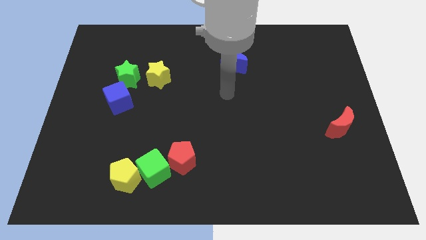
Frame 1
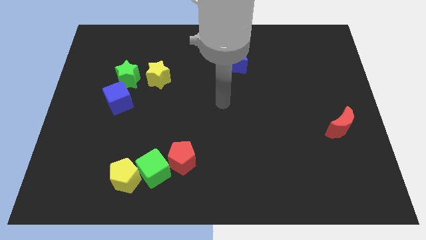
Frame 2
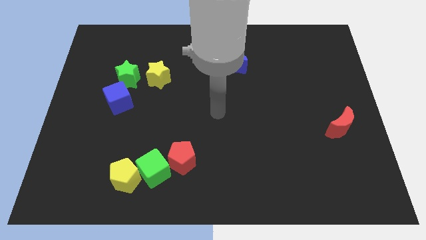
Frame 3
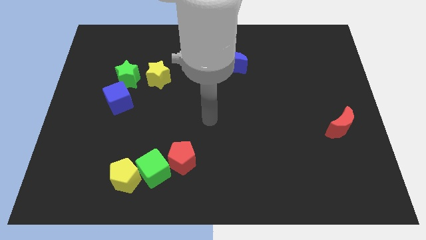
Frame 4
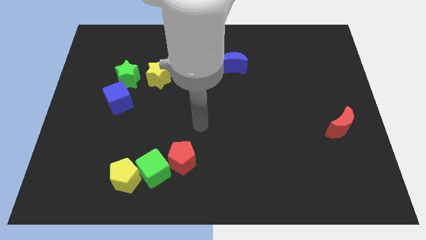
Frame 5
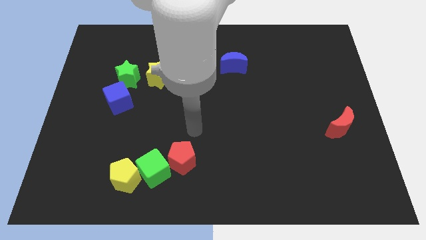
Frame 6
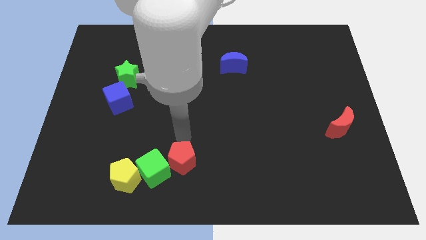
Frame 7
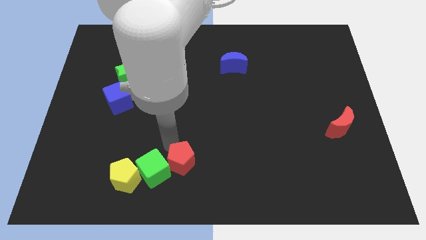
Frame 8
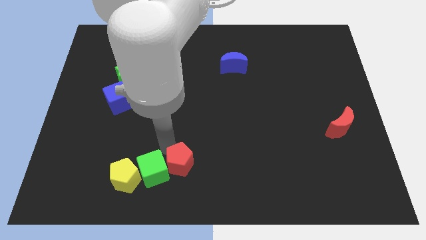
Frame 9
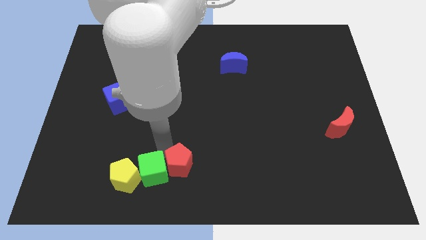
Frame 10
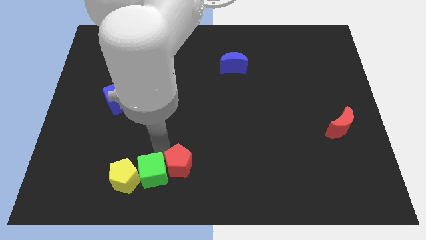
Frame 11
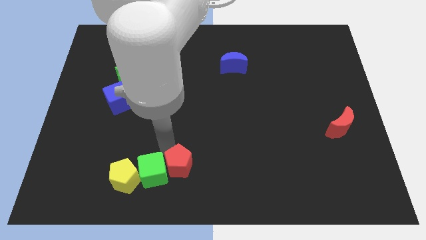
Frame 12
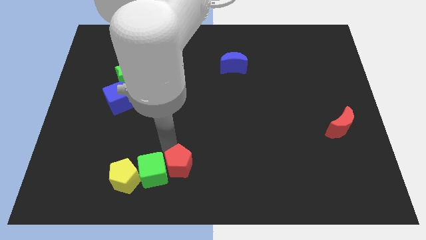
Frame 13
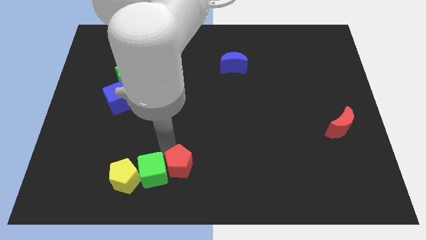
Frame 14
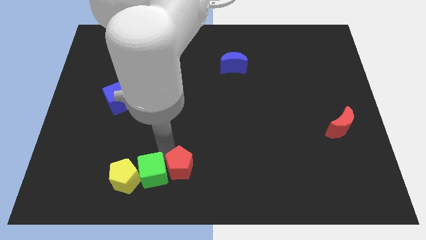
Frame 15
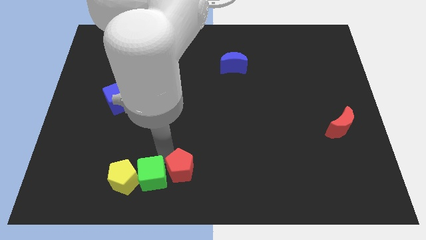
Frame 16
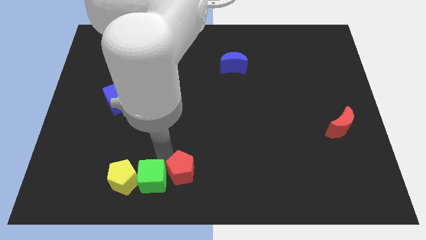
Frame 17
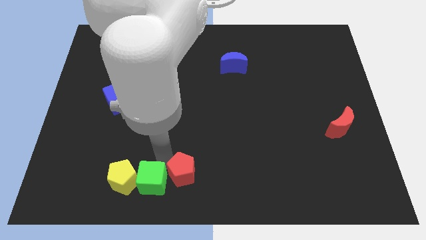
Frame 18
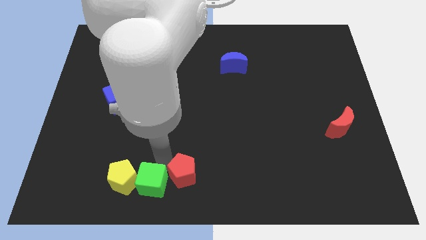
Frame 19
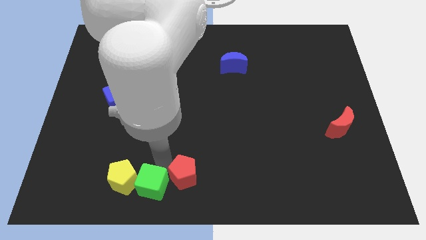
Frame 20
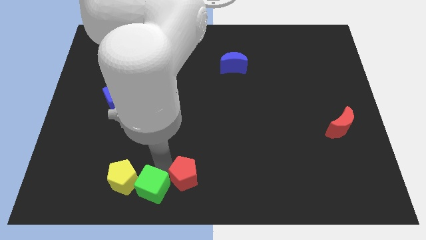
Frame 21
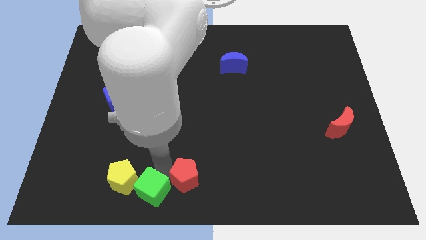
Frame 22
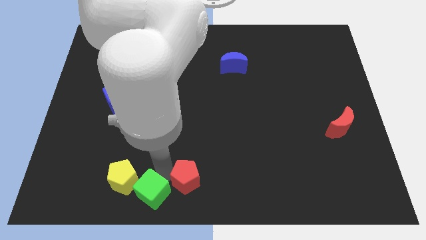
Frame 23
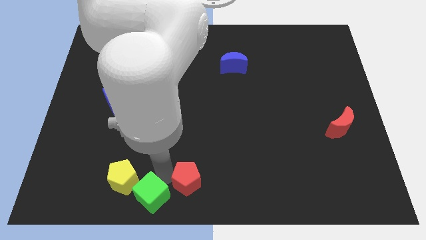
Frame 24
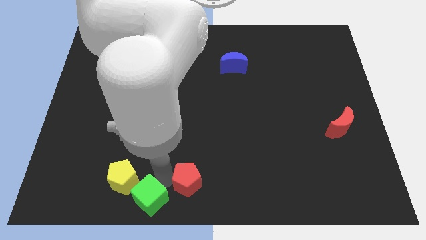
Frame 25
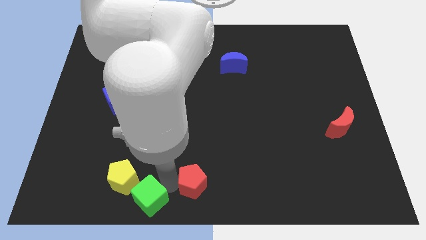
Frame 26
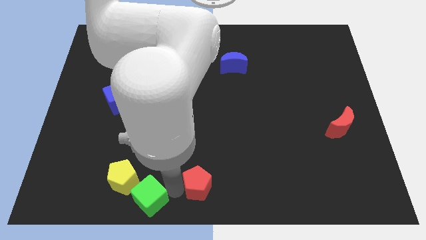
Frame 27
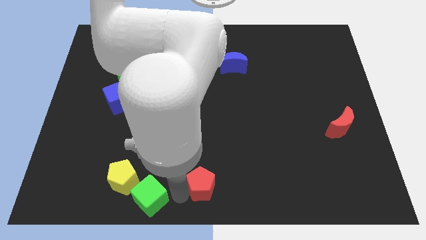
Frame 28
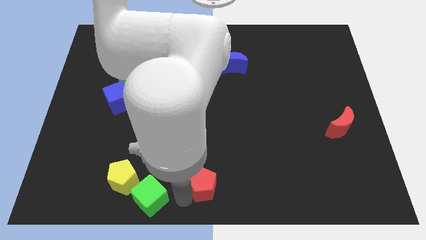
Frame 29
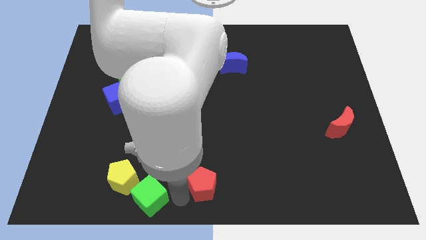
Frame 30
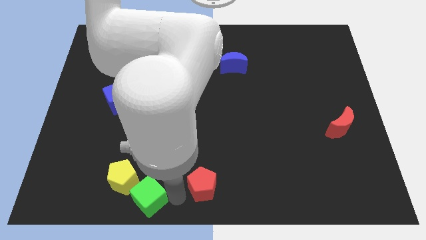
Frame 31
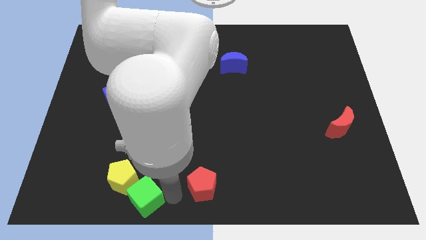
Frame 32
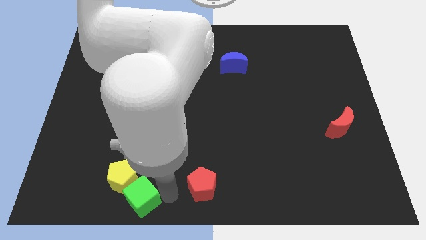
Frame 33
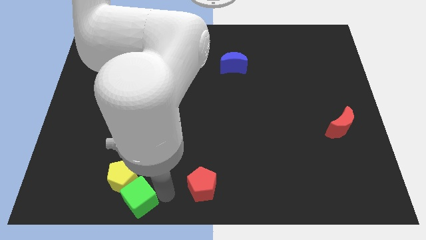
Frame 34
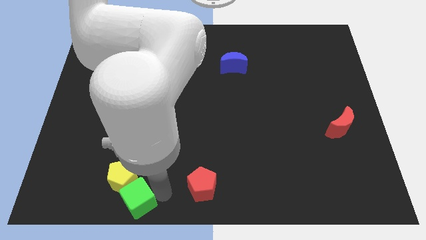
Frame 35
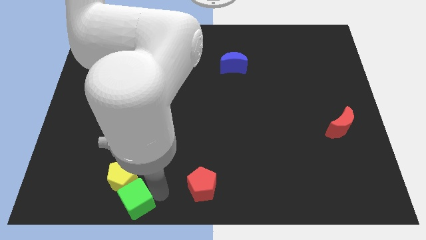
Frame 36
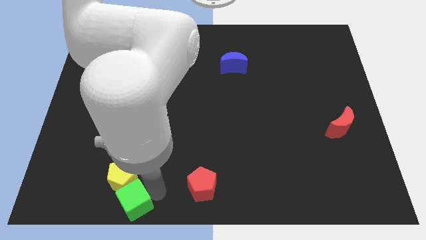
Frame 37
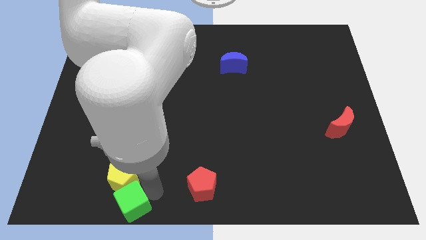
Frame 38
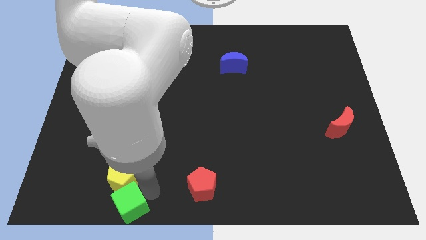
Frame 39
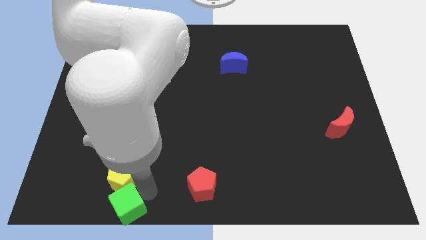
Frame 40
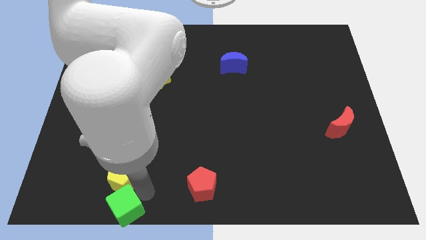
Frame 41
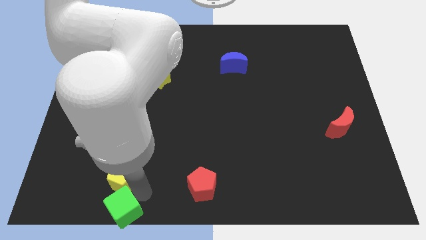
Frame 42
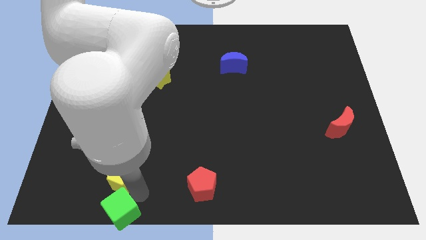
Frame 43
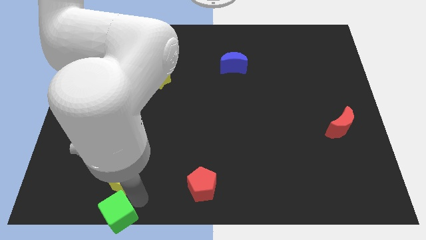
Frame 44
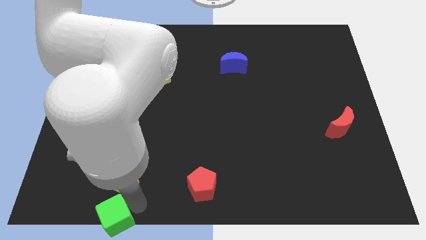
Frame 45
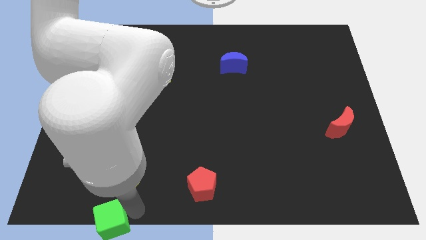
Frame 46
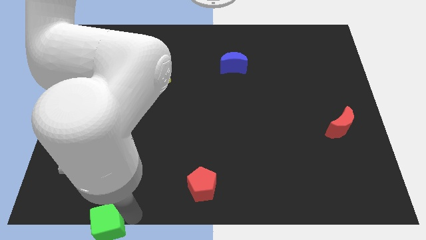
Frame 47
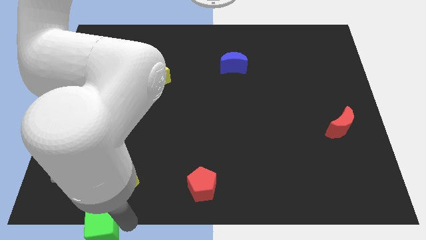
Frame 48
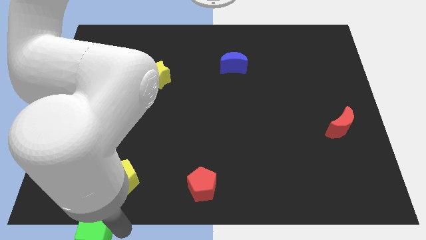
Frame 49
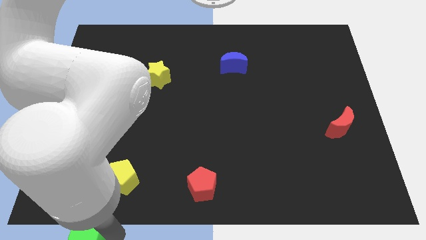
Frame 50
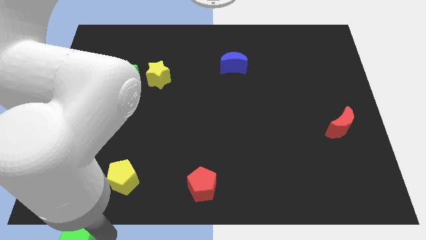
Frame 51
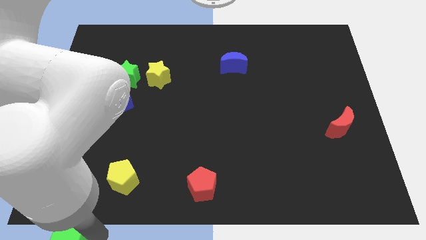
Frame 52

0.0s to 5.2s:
move the green cube to the bottom left

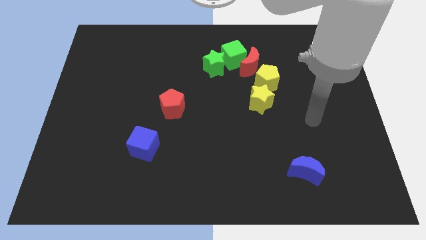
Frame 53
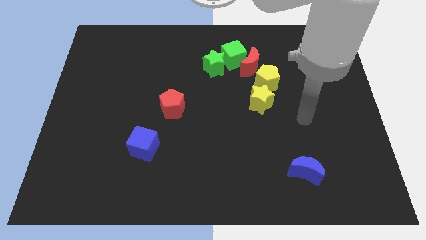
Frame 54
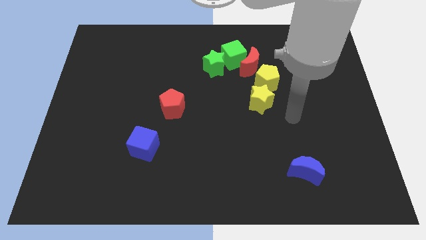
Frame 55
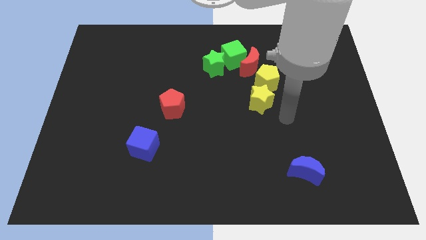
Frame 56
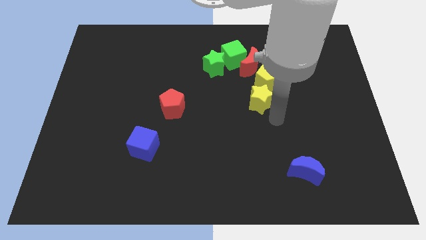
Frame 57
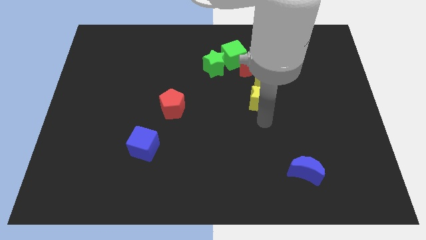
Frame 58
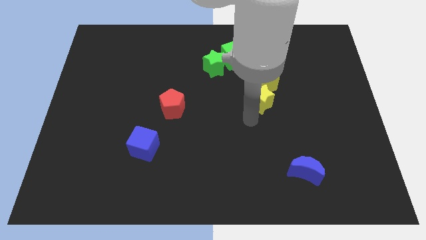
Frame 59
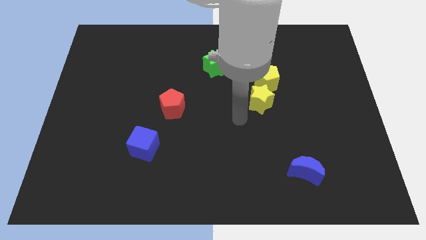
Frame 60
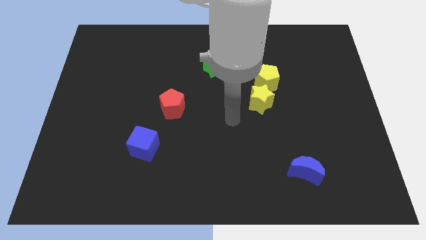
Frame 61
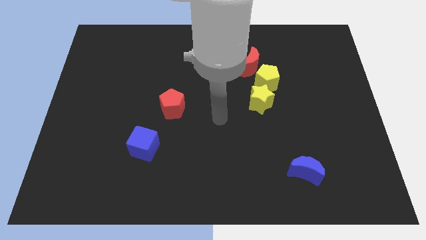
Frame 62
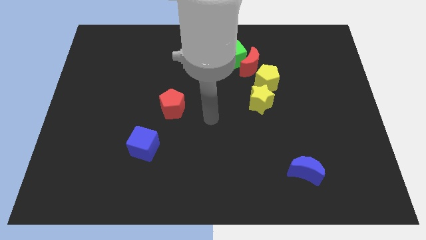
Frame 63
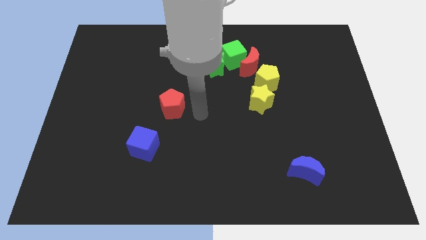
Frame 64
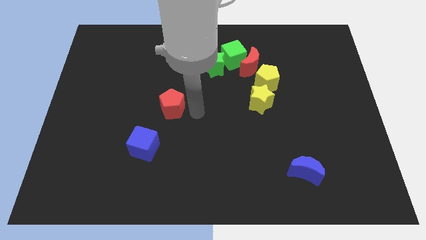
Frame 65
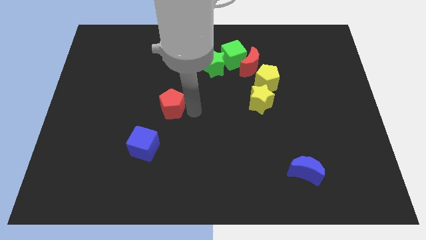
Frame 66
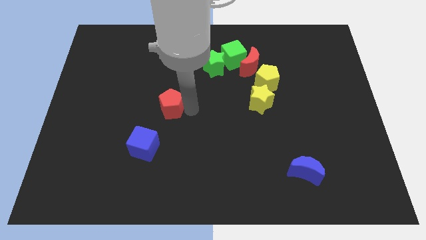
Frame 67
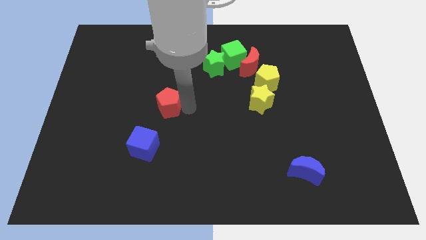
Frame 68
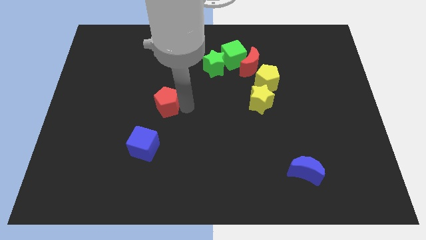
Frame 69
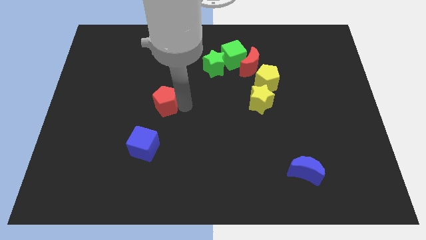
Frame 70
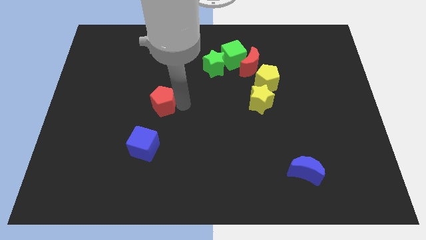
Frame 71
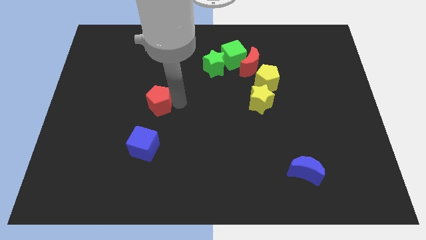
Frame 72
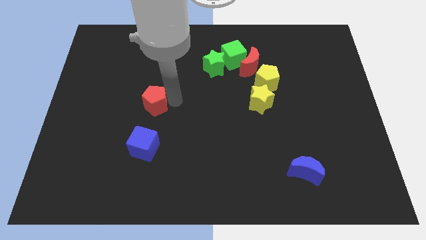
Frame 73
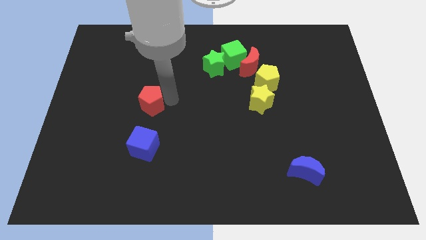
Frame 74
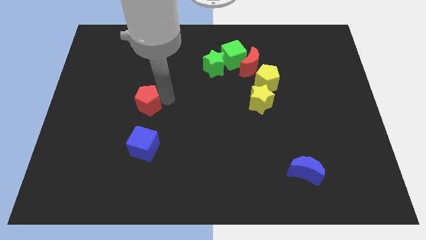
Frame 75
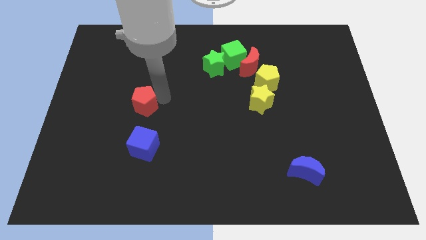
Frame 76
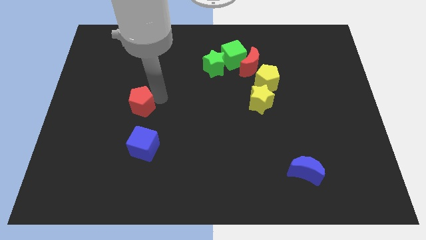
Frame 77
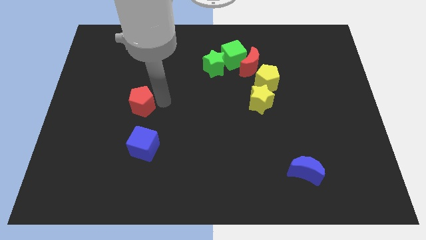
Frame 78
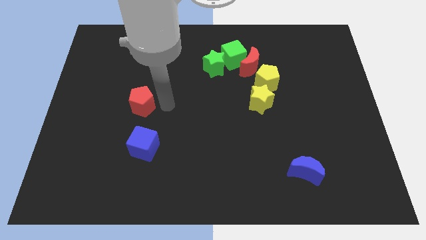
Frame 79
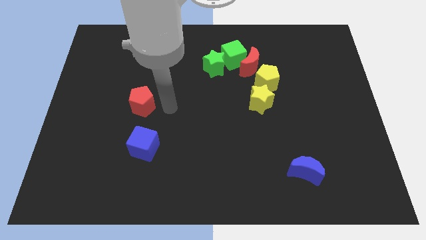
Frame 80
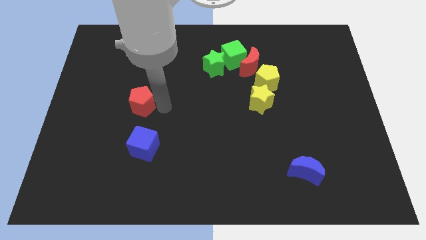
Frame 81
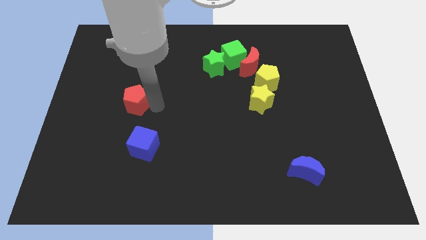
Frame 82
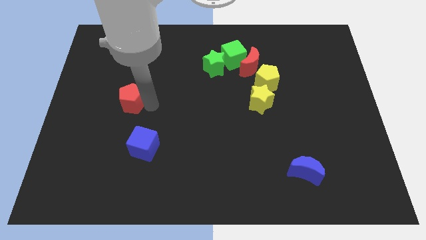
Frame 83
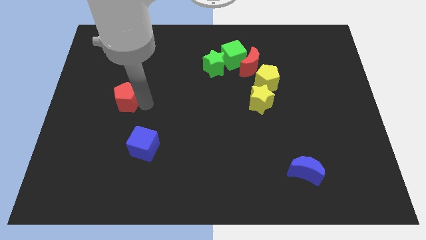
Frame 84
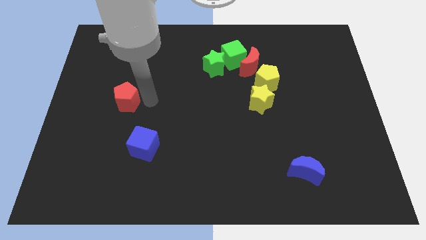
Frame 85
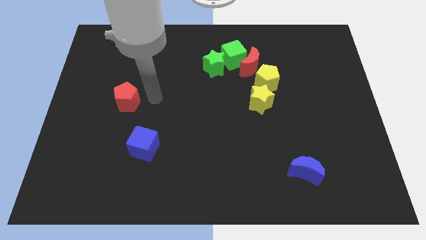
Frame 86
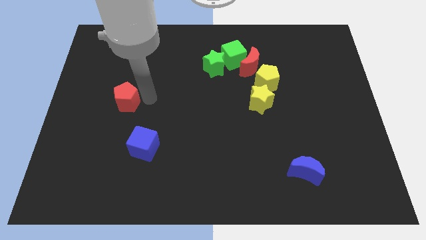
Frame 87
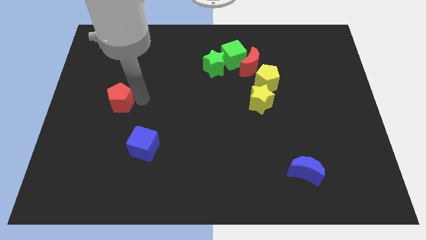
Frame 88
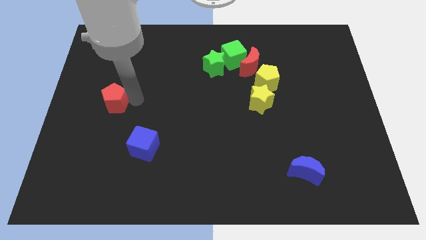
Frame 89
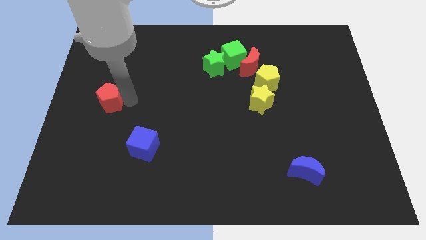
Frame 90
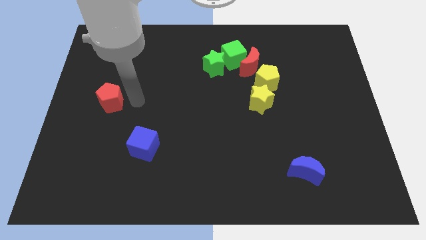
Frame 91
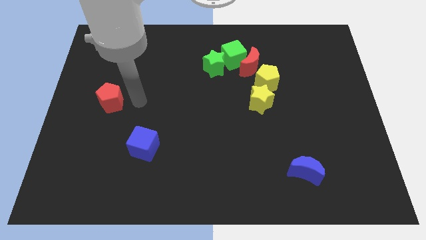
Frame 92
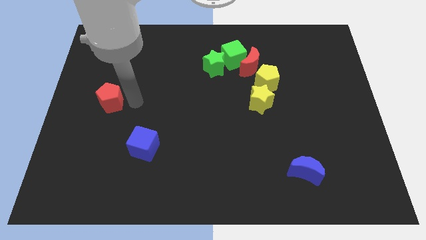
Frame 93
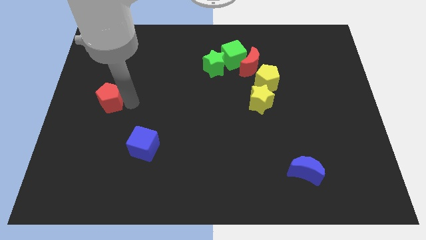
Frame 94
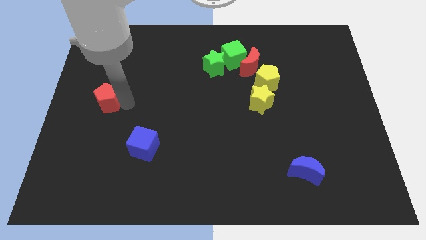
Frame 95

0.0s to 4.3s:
move the red pentagon to the center left
